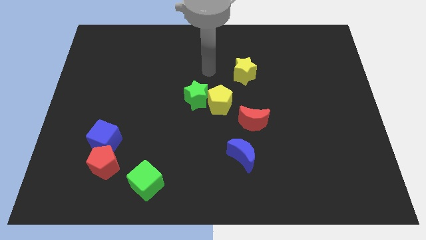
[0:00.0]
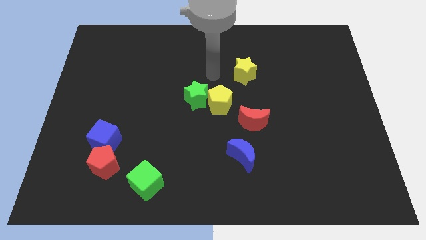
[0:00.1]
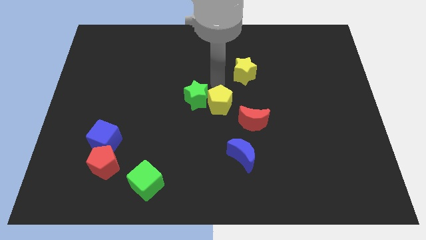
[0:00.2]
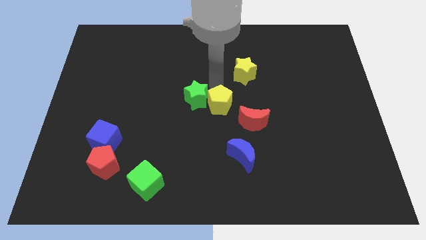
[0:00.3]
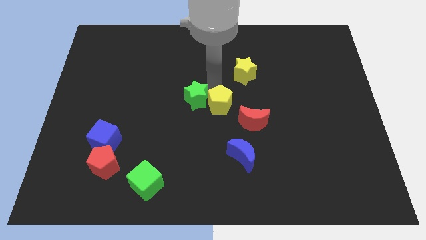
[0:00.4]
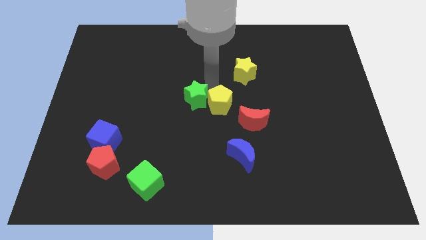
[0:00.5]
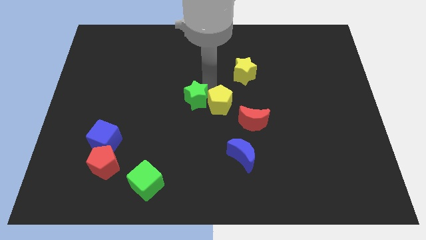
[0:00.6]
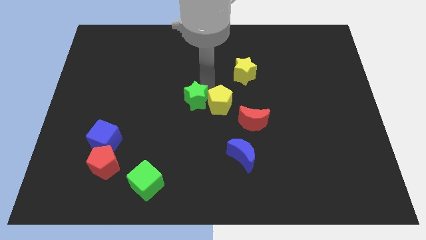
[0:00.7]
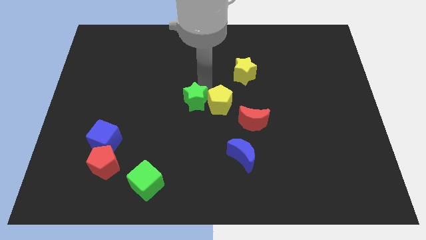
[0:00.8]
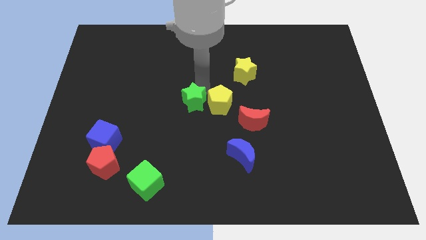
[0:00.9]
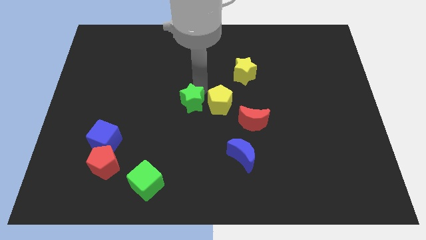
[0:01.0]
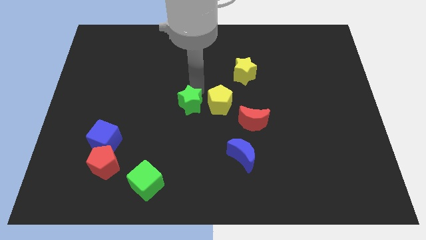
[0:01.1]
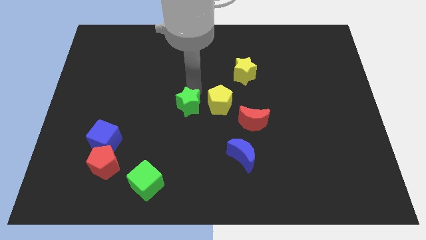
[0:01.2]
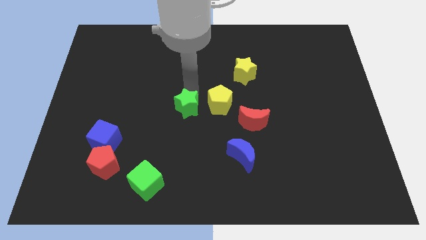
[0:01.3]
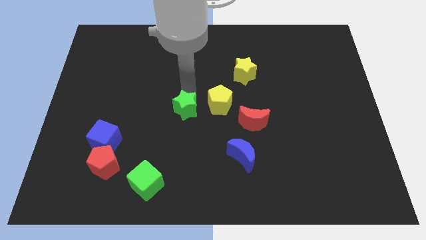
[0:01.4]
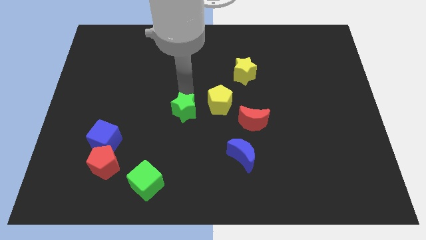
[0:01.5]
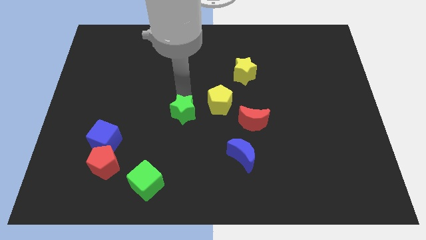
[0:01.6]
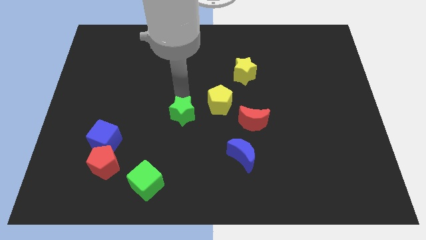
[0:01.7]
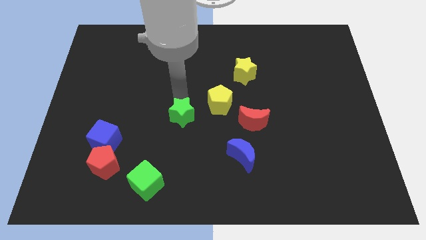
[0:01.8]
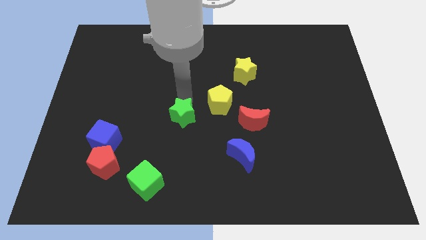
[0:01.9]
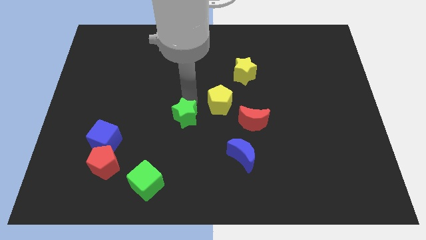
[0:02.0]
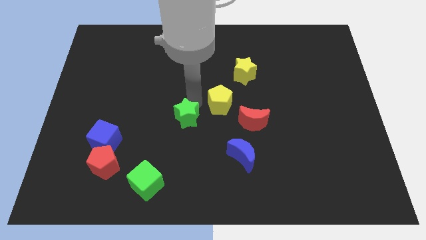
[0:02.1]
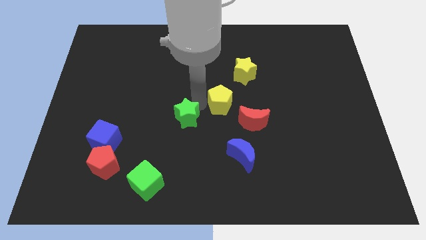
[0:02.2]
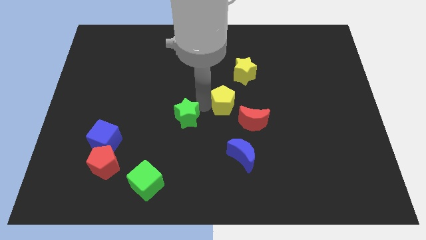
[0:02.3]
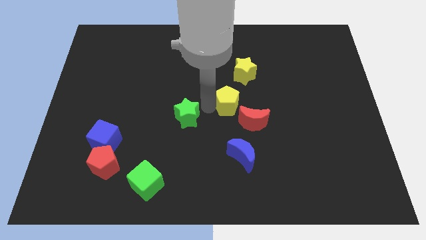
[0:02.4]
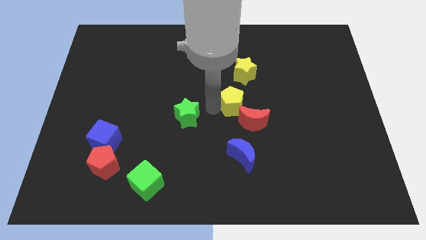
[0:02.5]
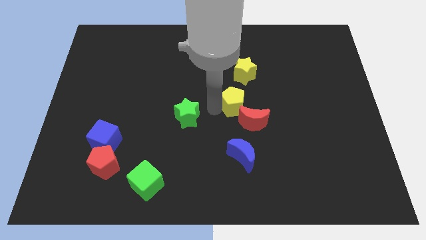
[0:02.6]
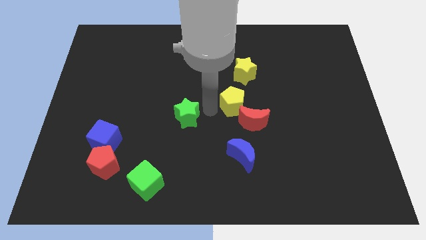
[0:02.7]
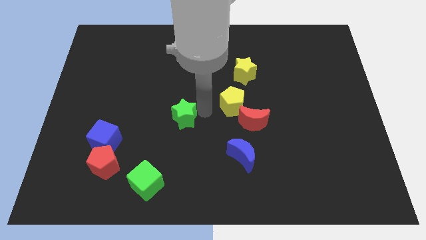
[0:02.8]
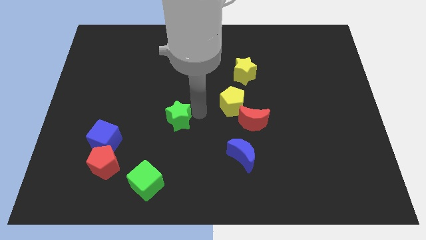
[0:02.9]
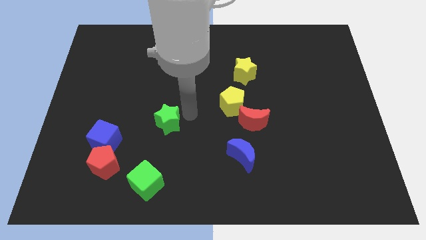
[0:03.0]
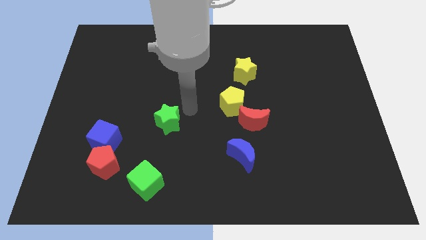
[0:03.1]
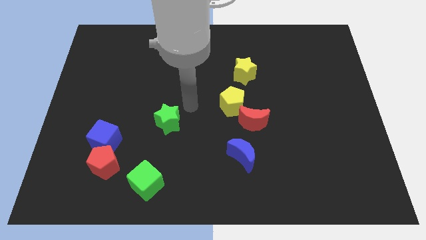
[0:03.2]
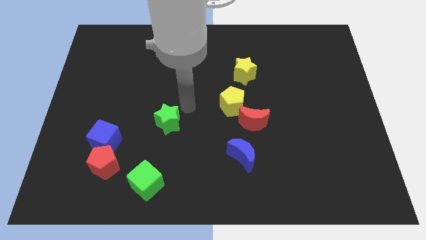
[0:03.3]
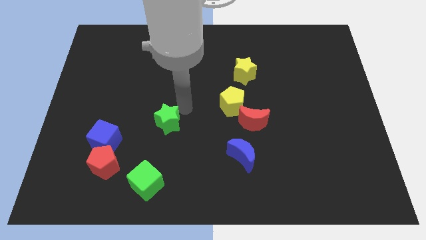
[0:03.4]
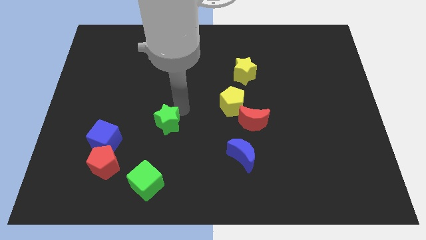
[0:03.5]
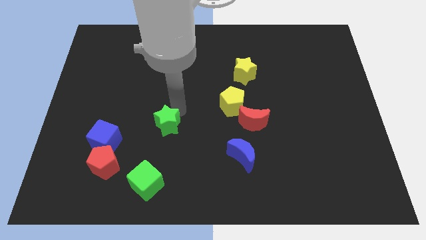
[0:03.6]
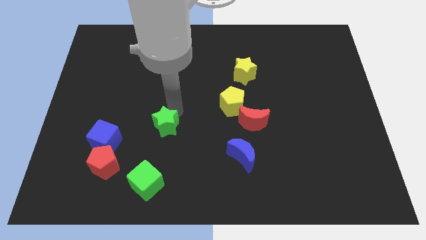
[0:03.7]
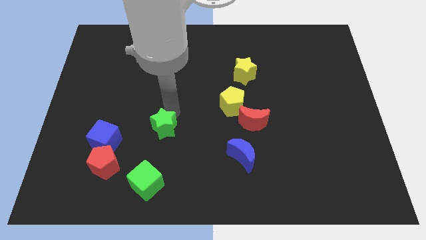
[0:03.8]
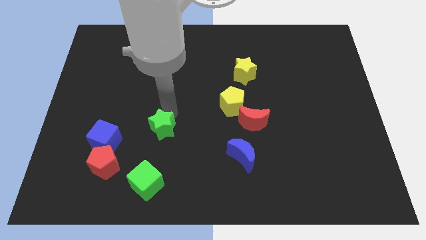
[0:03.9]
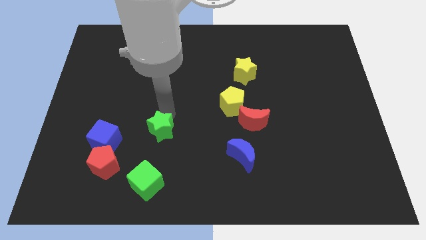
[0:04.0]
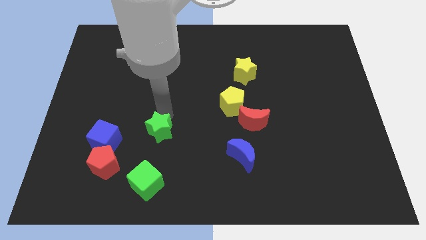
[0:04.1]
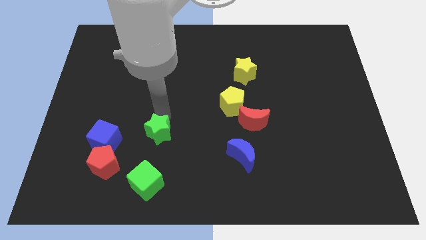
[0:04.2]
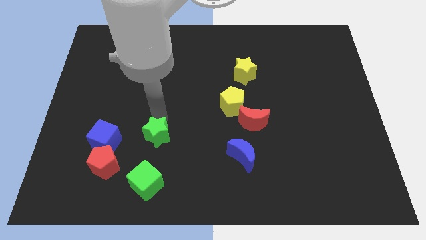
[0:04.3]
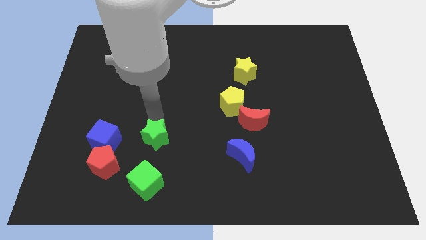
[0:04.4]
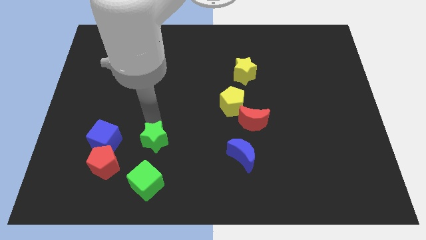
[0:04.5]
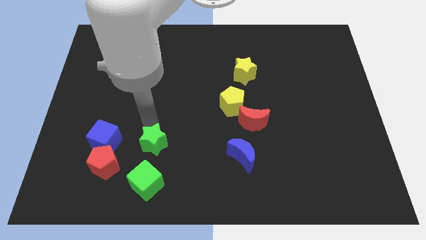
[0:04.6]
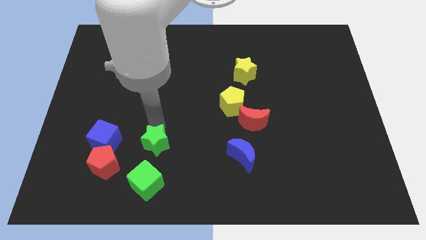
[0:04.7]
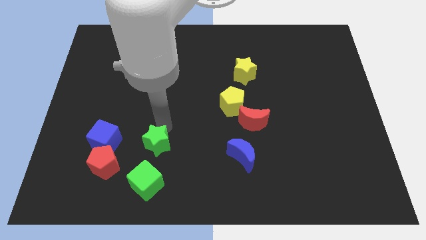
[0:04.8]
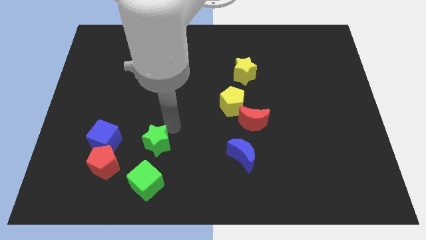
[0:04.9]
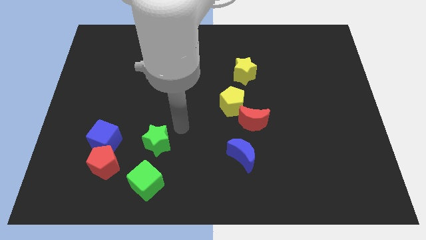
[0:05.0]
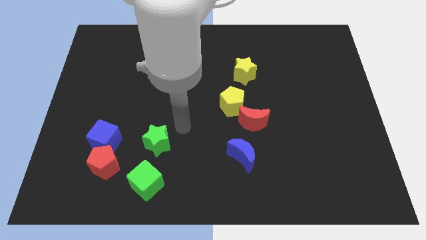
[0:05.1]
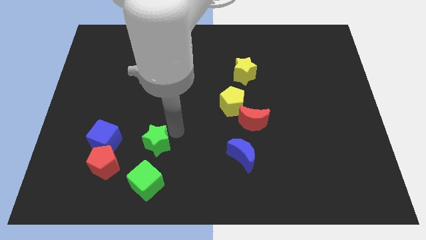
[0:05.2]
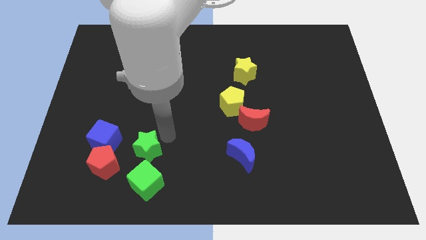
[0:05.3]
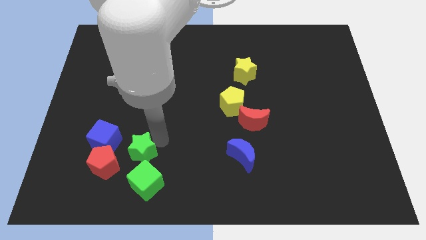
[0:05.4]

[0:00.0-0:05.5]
move the green star diagonally up and to the left of the green cube

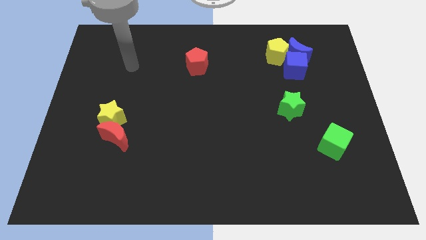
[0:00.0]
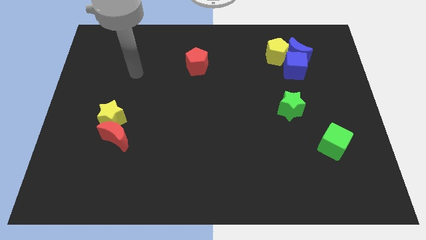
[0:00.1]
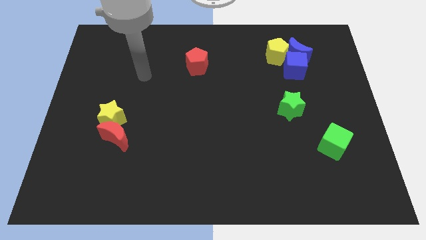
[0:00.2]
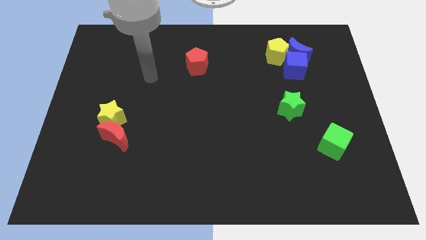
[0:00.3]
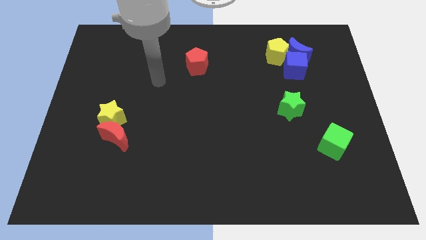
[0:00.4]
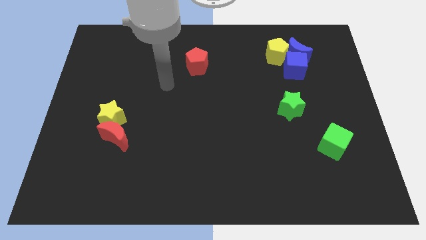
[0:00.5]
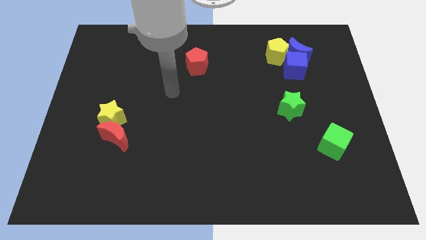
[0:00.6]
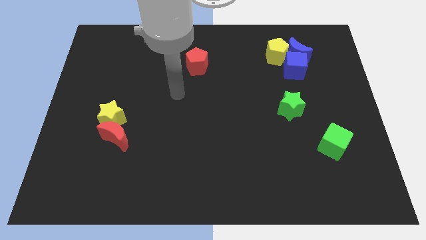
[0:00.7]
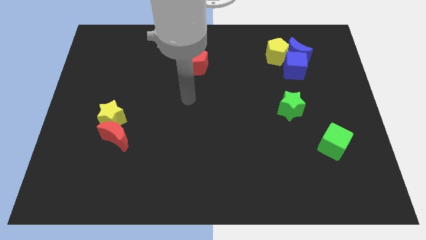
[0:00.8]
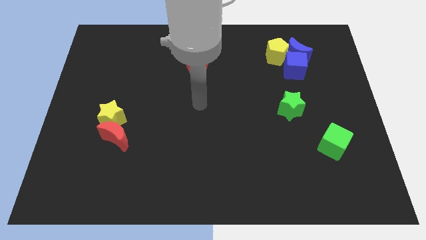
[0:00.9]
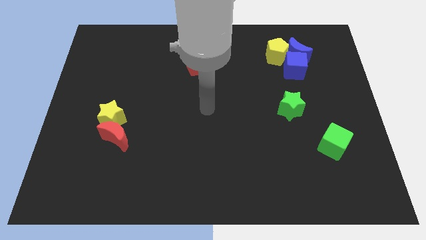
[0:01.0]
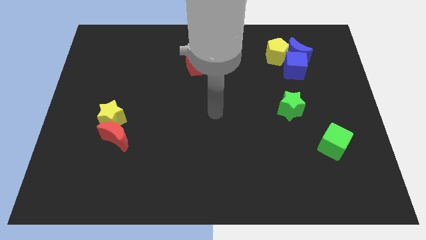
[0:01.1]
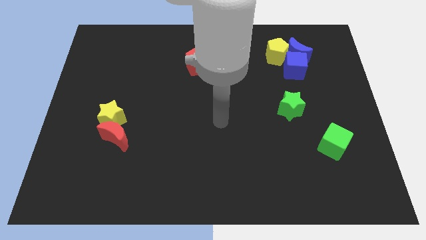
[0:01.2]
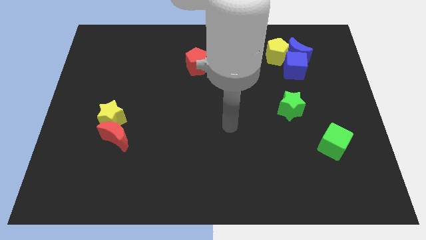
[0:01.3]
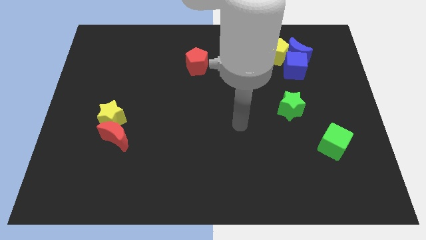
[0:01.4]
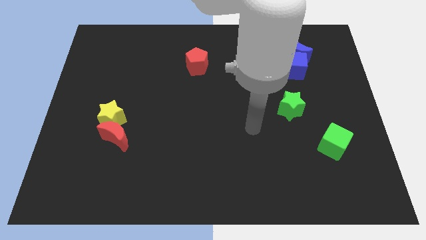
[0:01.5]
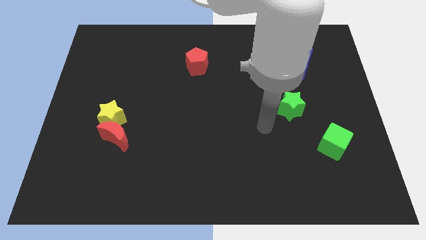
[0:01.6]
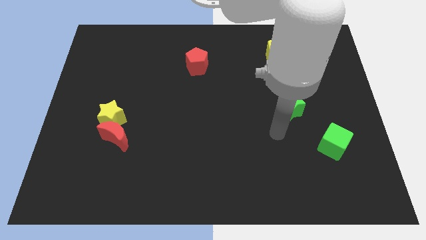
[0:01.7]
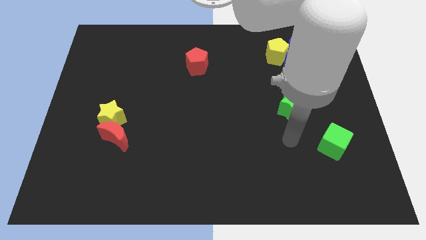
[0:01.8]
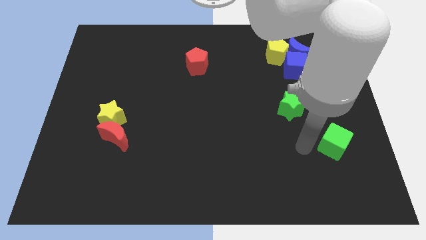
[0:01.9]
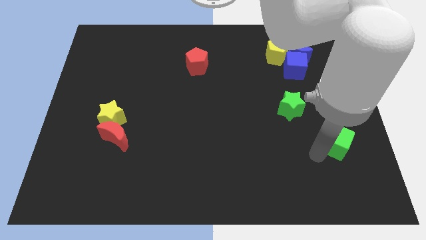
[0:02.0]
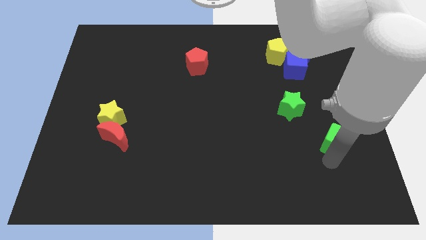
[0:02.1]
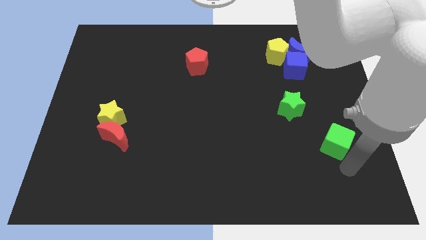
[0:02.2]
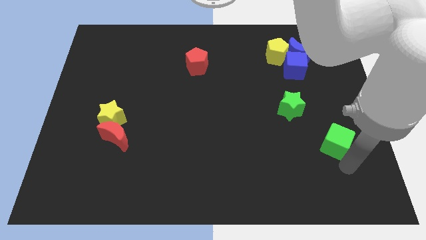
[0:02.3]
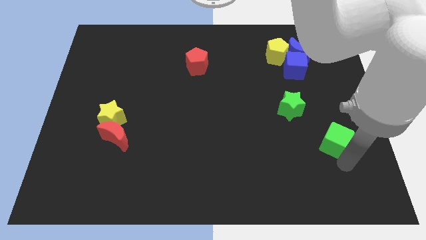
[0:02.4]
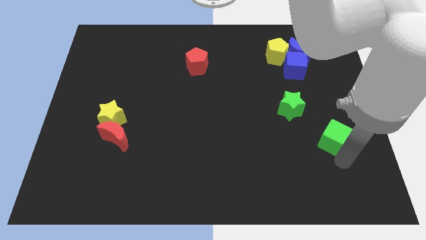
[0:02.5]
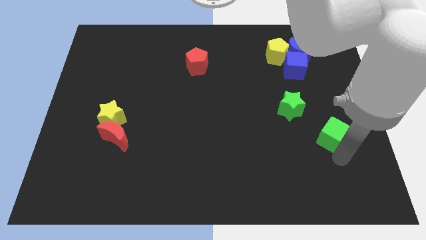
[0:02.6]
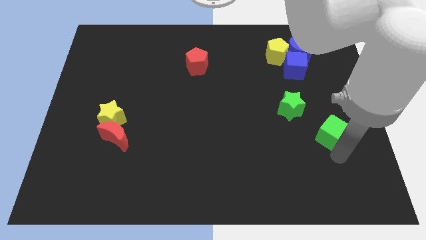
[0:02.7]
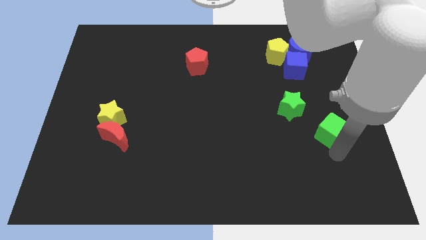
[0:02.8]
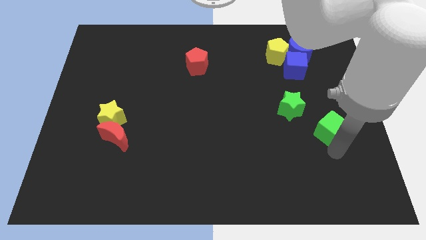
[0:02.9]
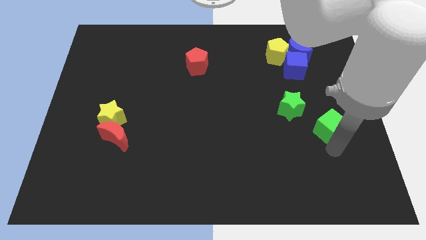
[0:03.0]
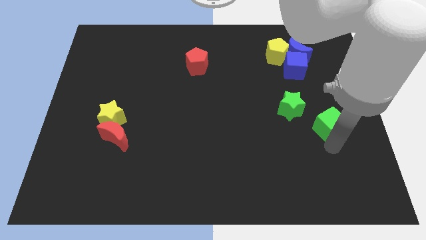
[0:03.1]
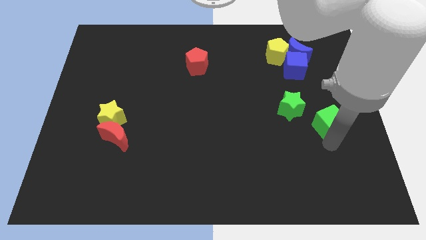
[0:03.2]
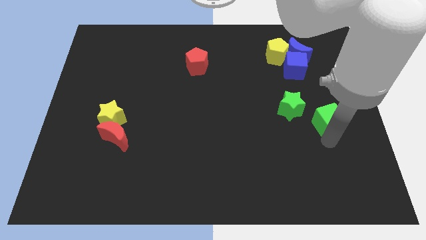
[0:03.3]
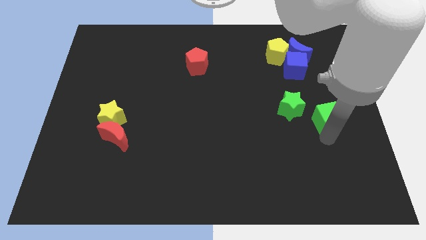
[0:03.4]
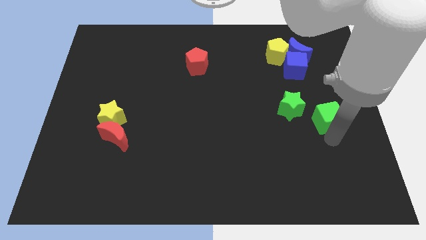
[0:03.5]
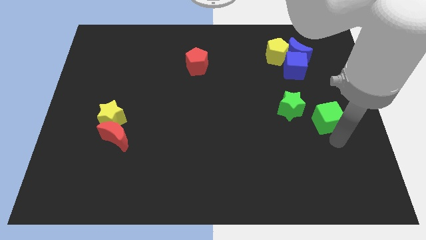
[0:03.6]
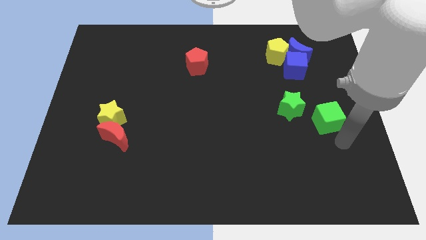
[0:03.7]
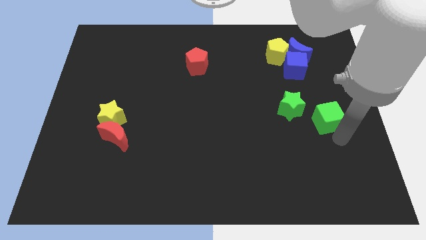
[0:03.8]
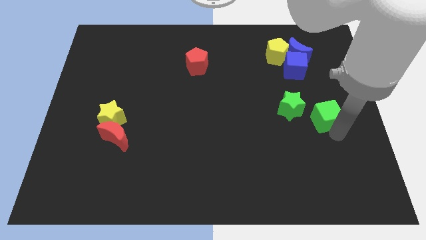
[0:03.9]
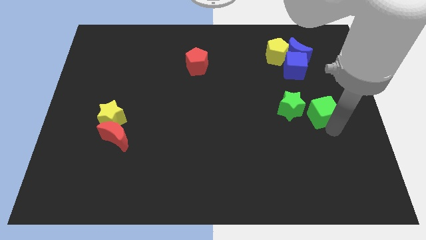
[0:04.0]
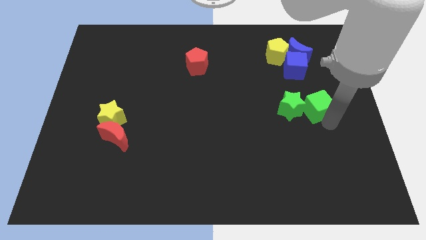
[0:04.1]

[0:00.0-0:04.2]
move the green cube below the blue cube
